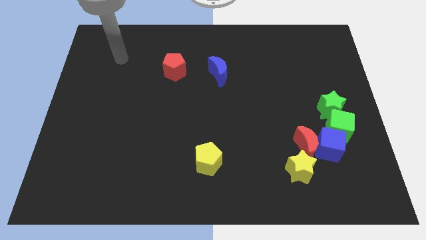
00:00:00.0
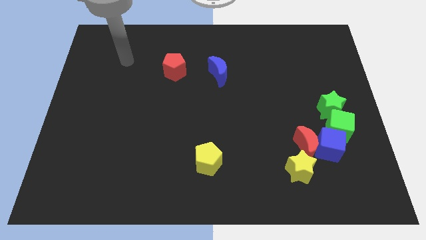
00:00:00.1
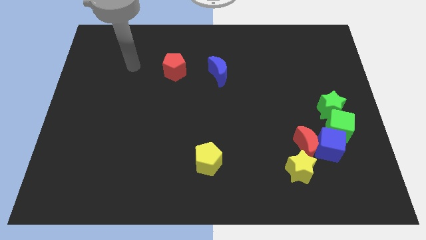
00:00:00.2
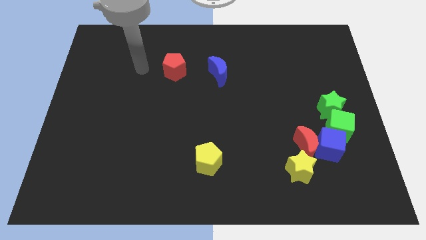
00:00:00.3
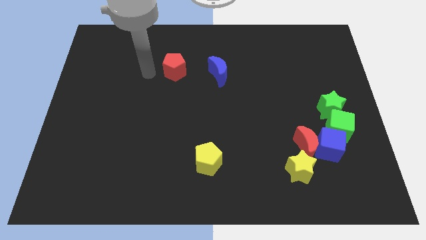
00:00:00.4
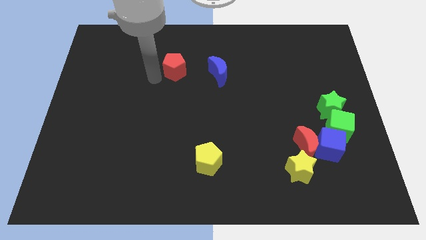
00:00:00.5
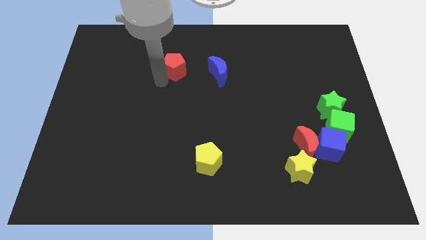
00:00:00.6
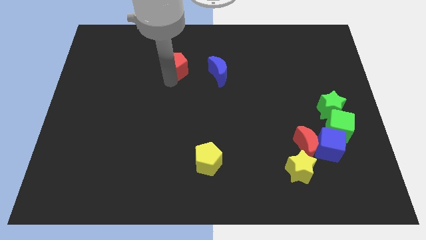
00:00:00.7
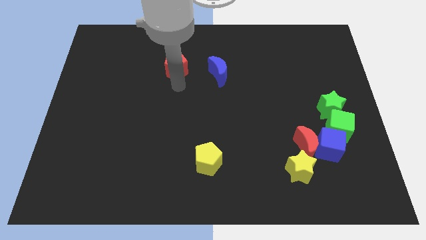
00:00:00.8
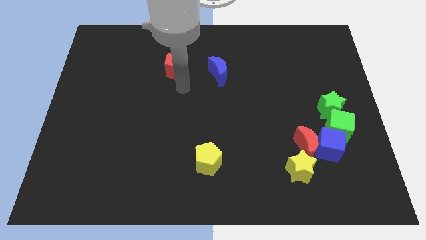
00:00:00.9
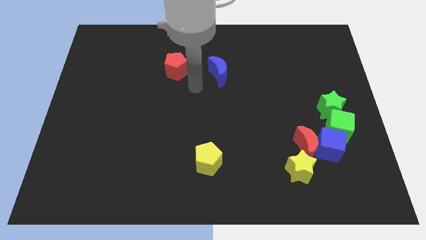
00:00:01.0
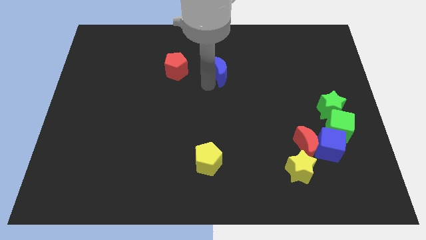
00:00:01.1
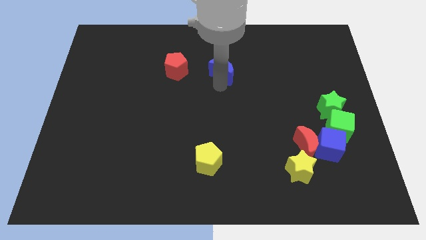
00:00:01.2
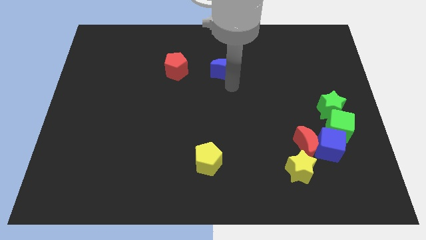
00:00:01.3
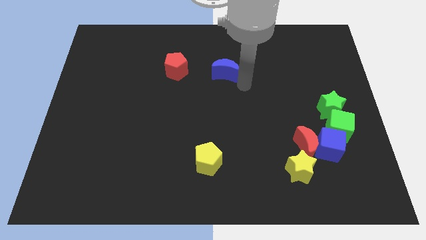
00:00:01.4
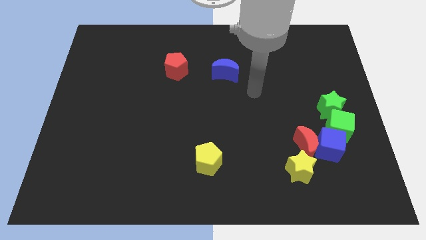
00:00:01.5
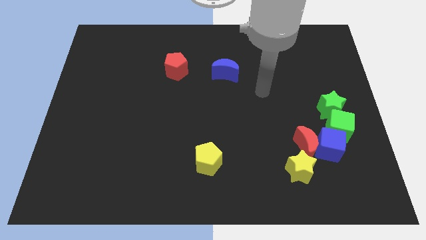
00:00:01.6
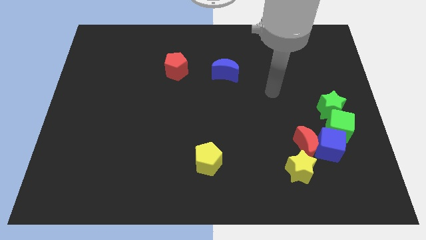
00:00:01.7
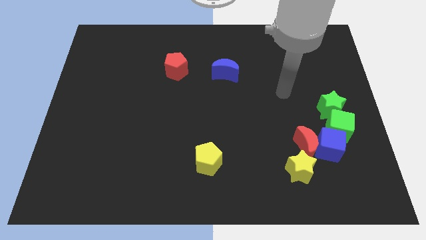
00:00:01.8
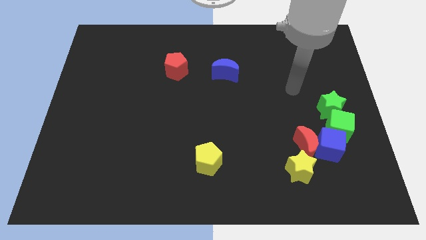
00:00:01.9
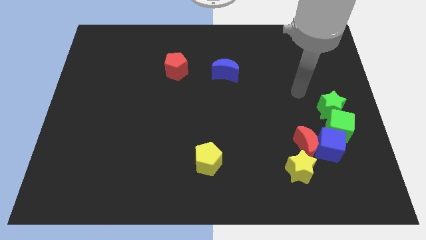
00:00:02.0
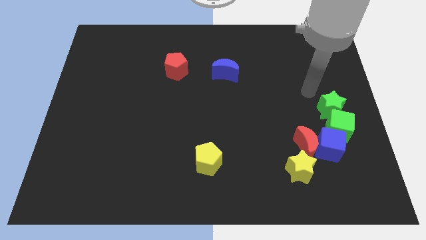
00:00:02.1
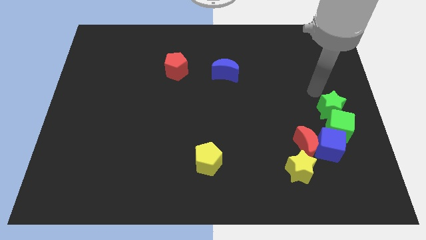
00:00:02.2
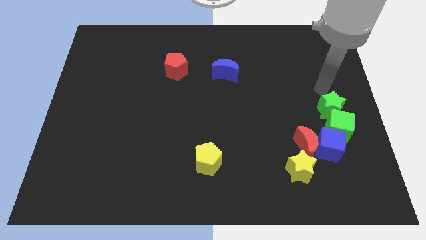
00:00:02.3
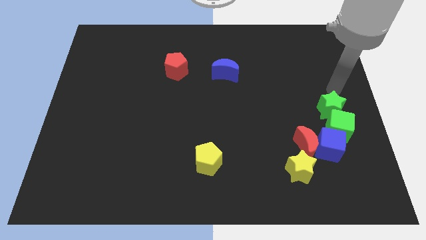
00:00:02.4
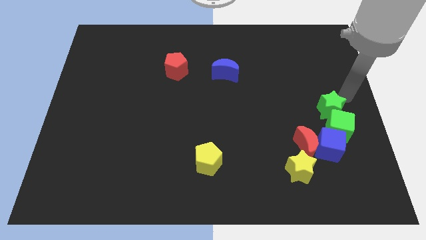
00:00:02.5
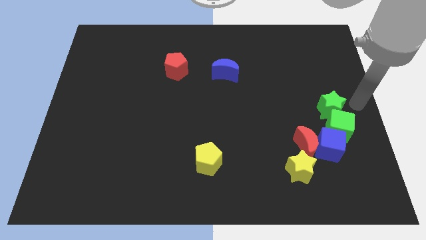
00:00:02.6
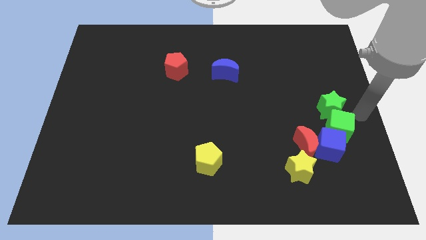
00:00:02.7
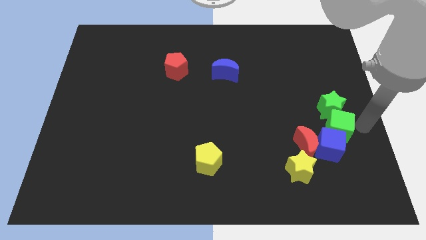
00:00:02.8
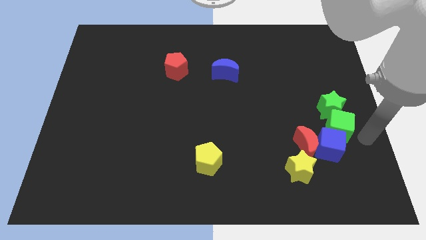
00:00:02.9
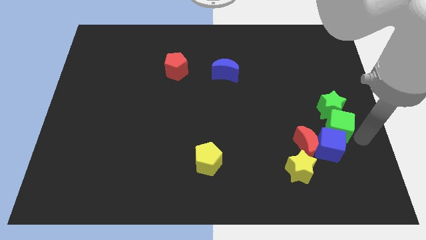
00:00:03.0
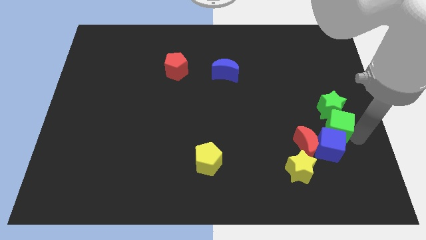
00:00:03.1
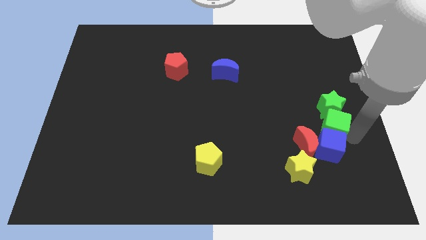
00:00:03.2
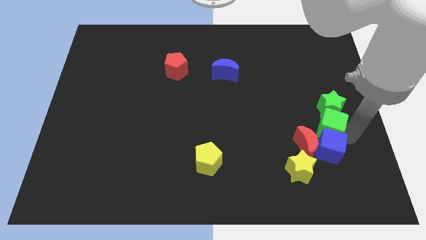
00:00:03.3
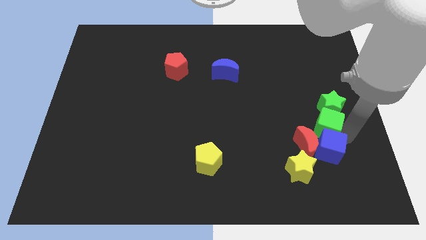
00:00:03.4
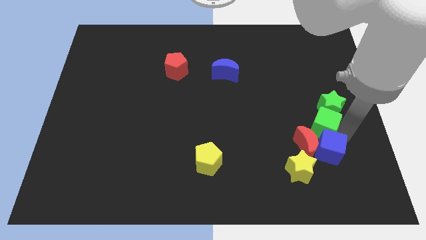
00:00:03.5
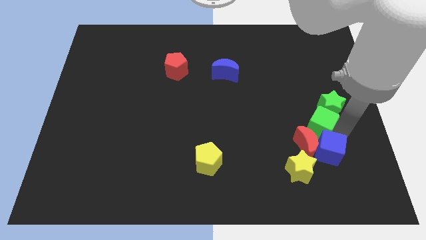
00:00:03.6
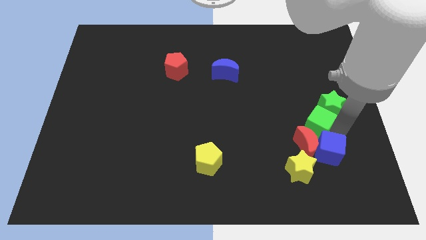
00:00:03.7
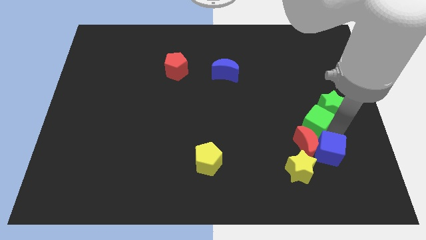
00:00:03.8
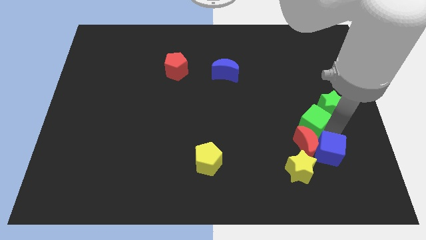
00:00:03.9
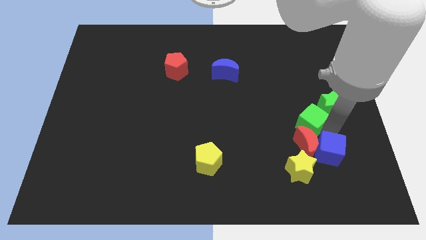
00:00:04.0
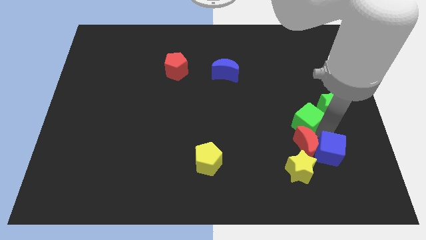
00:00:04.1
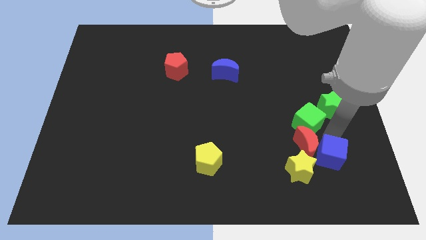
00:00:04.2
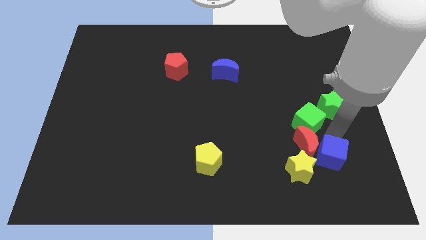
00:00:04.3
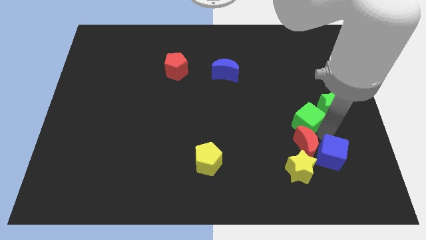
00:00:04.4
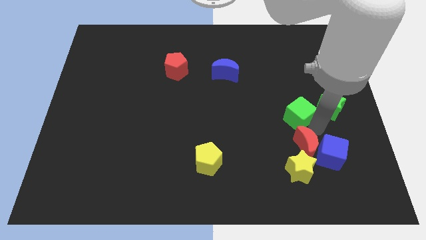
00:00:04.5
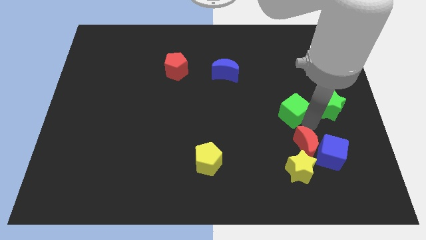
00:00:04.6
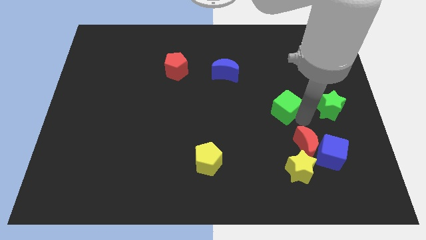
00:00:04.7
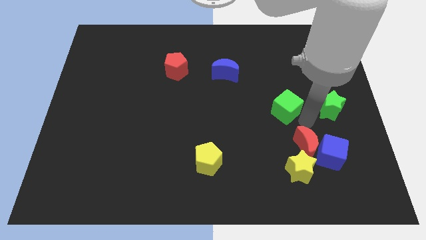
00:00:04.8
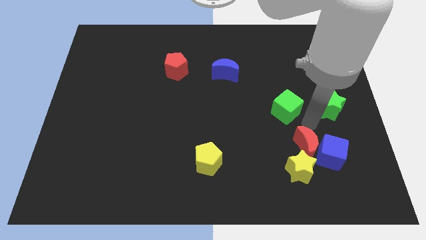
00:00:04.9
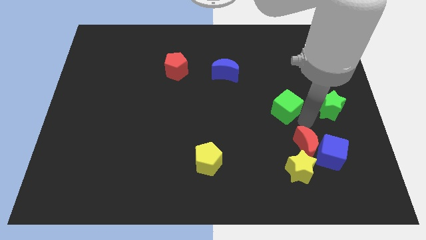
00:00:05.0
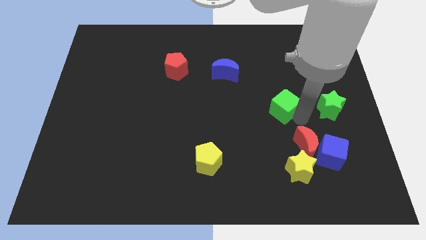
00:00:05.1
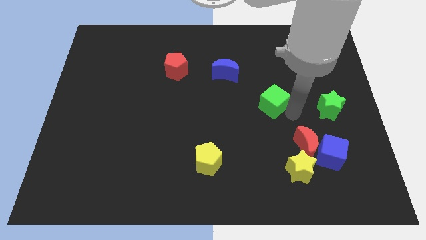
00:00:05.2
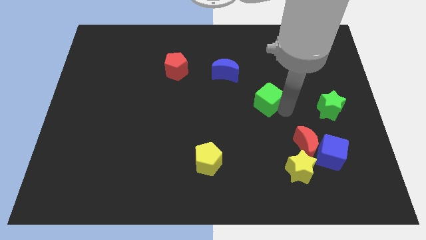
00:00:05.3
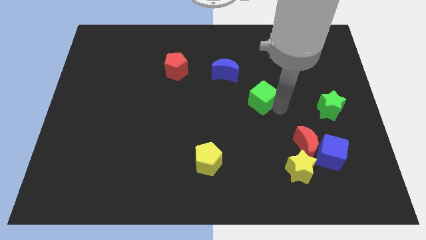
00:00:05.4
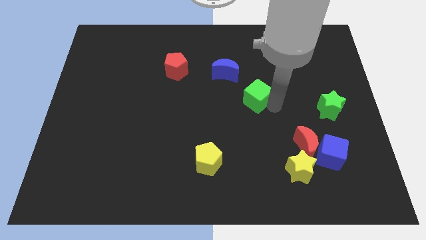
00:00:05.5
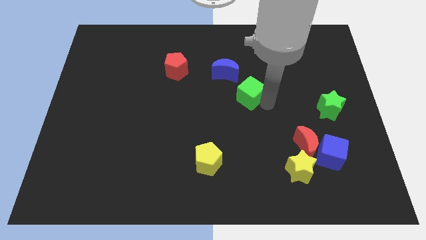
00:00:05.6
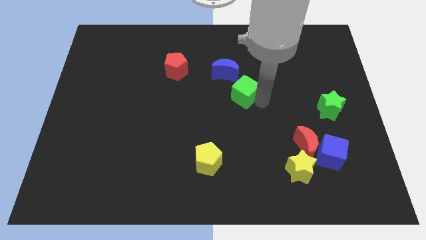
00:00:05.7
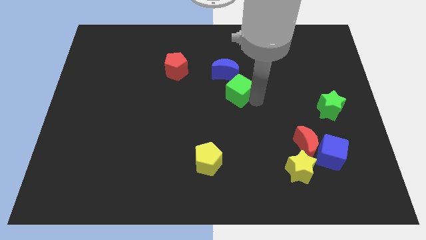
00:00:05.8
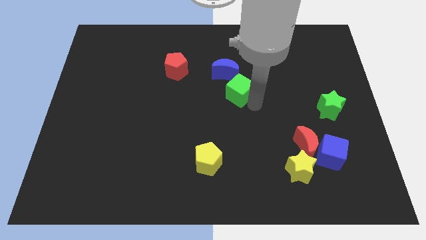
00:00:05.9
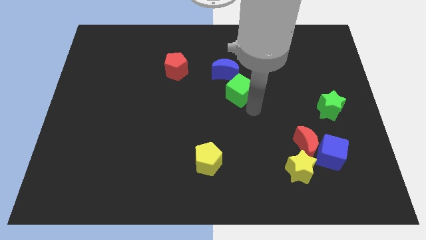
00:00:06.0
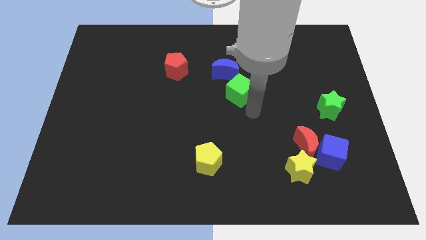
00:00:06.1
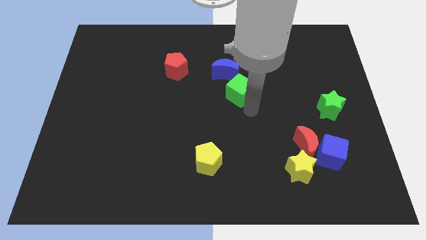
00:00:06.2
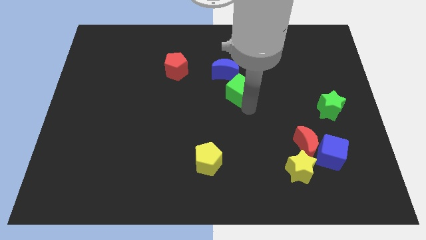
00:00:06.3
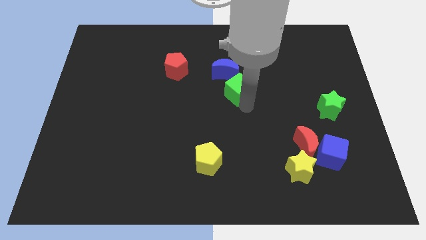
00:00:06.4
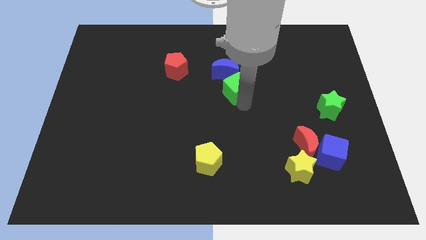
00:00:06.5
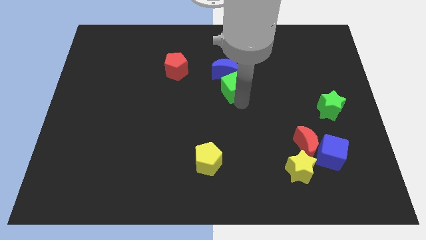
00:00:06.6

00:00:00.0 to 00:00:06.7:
move the green cube to the blue moon
